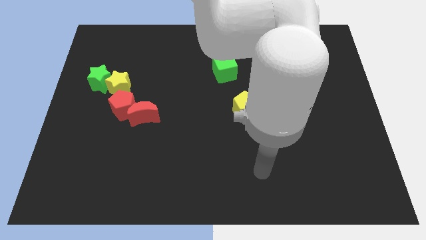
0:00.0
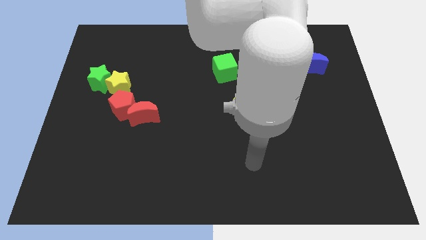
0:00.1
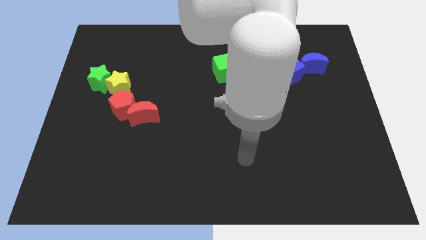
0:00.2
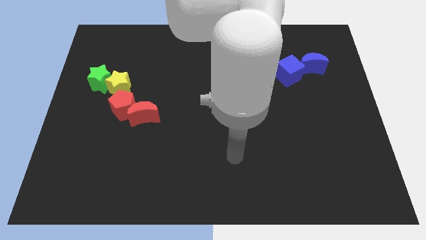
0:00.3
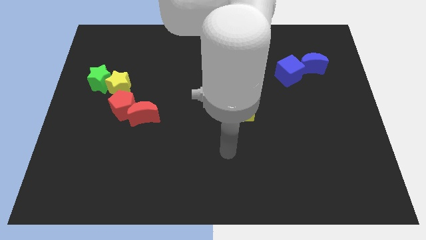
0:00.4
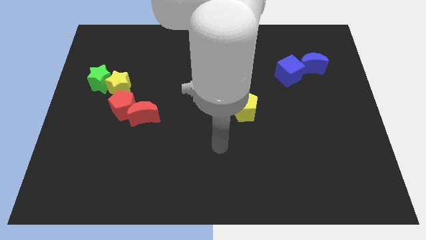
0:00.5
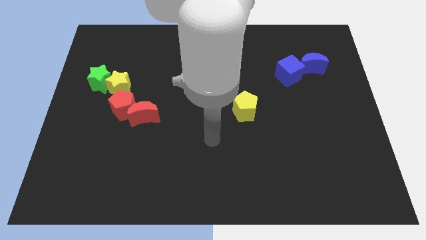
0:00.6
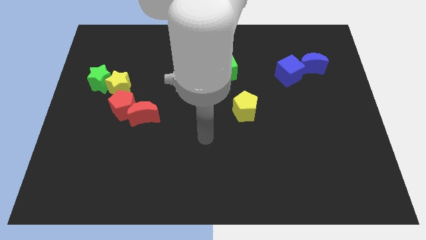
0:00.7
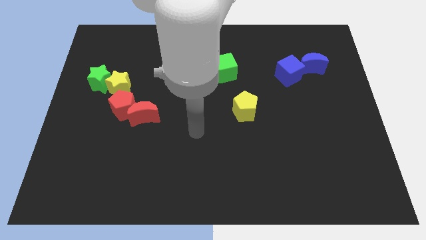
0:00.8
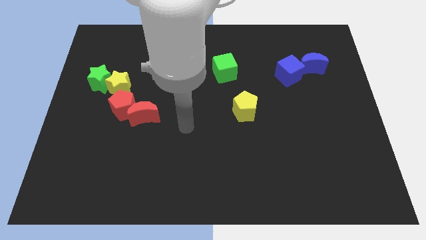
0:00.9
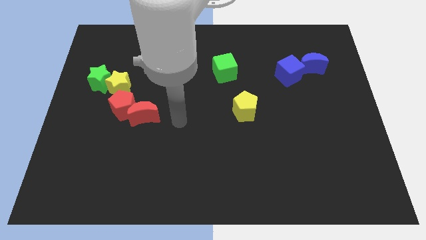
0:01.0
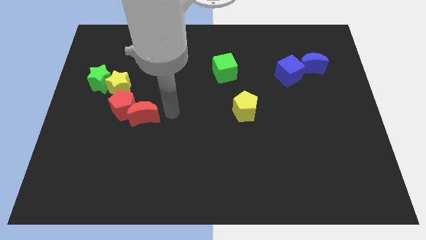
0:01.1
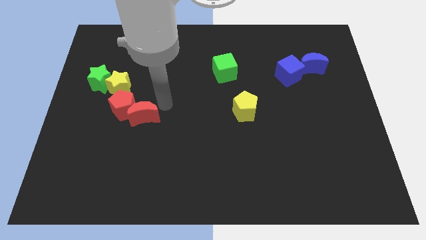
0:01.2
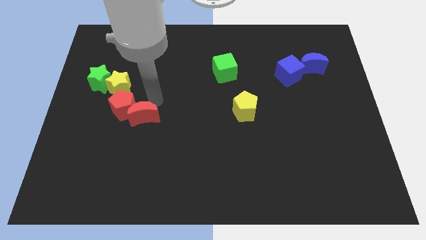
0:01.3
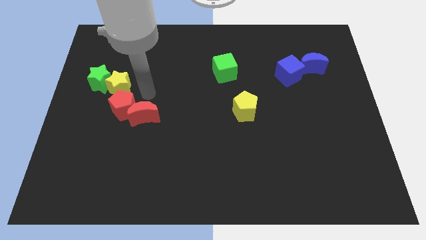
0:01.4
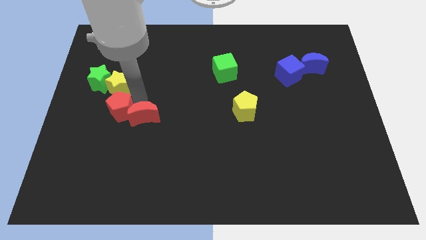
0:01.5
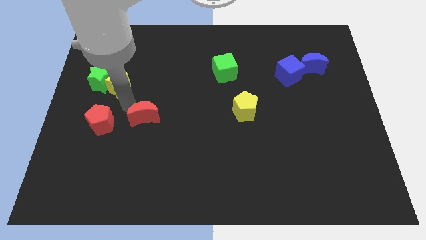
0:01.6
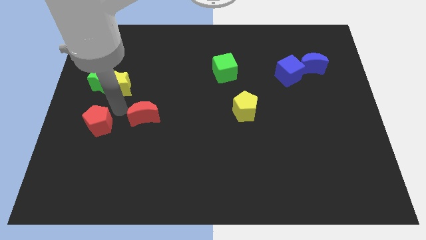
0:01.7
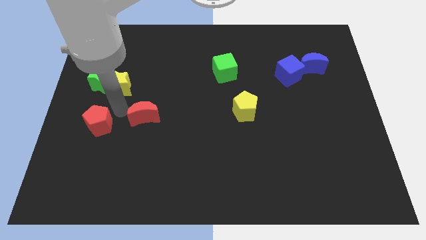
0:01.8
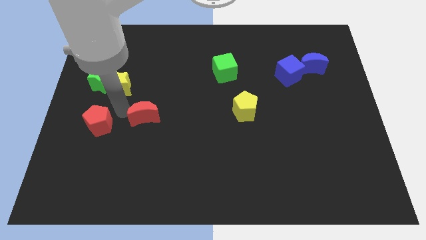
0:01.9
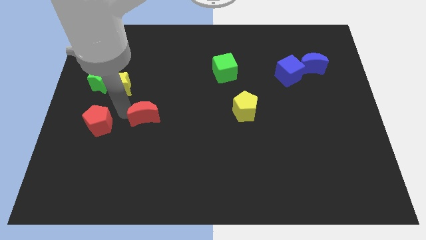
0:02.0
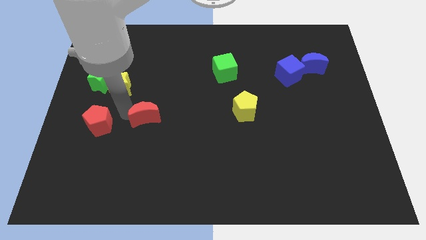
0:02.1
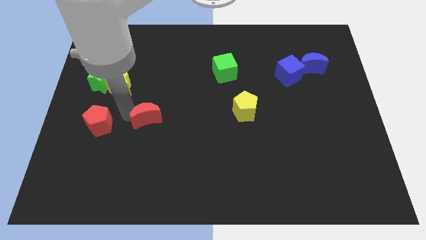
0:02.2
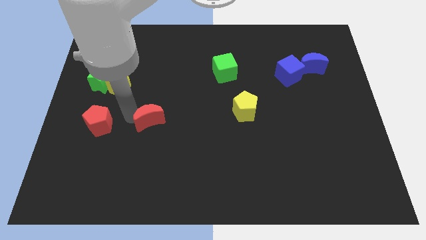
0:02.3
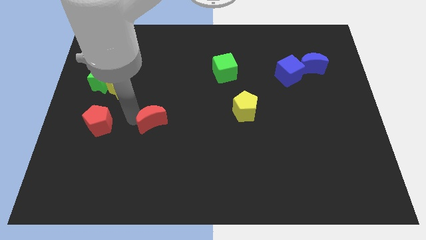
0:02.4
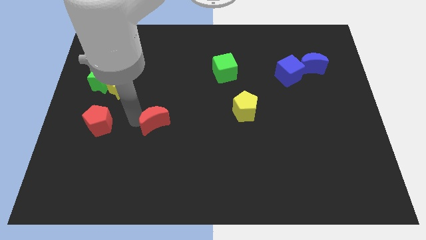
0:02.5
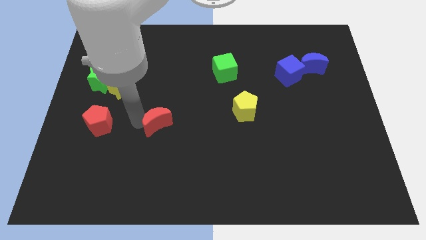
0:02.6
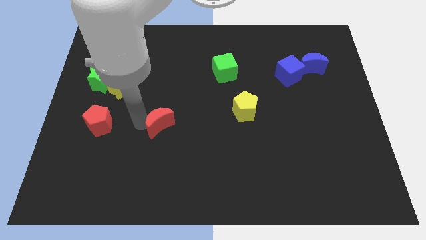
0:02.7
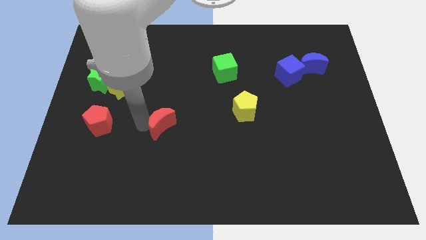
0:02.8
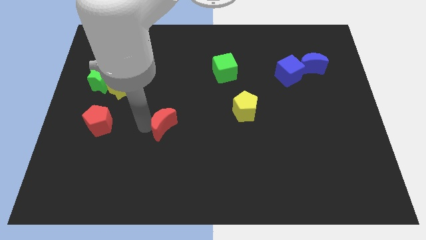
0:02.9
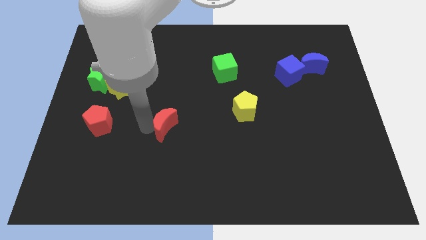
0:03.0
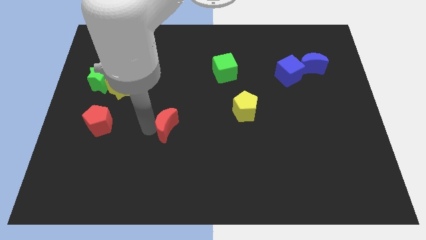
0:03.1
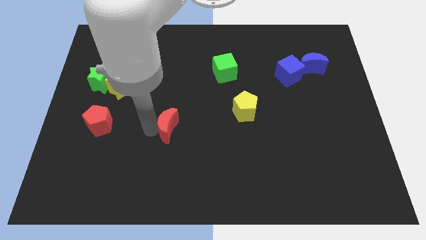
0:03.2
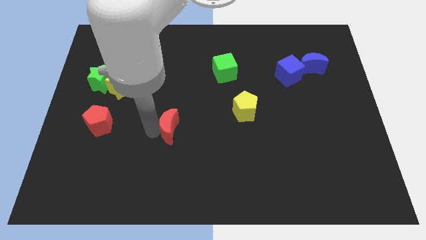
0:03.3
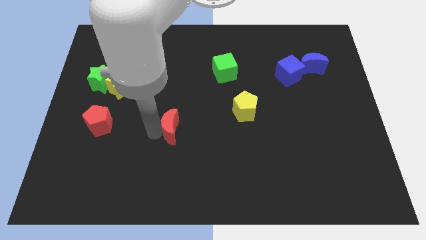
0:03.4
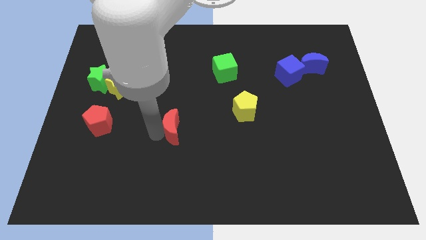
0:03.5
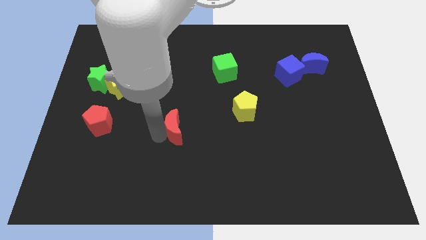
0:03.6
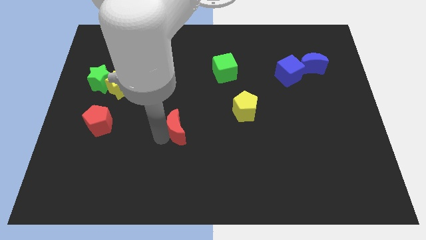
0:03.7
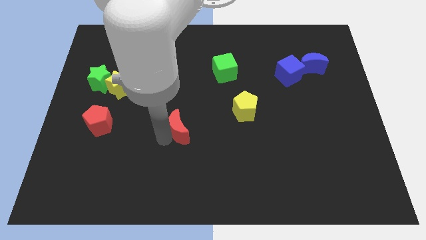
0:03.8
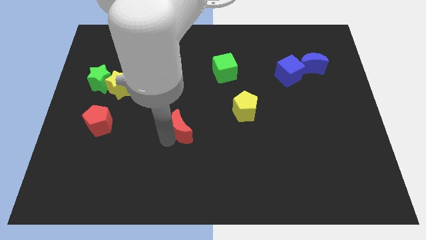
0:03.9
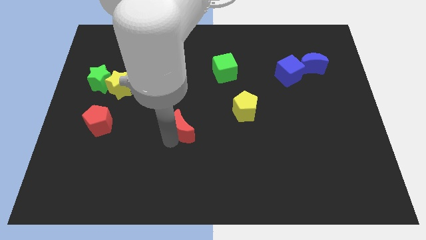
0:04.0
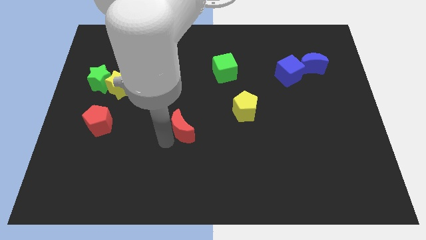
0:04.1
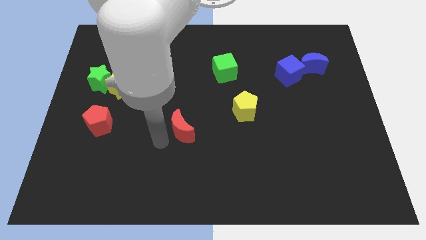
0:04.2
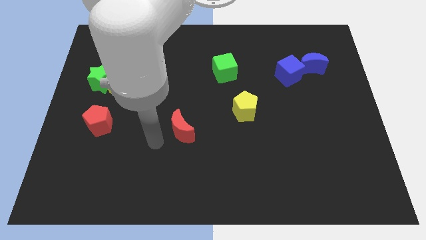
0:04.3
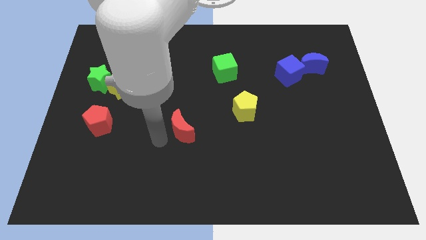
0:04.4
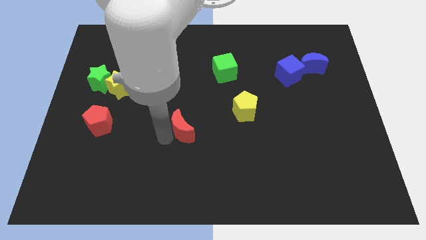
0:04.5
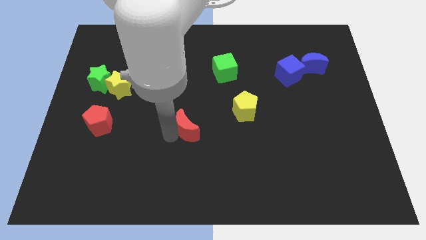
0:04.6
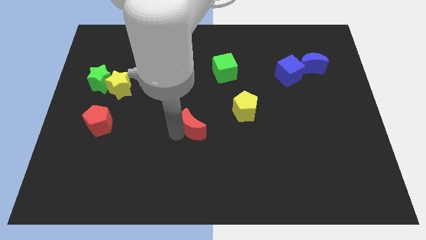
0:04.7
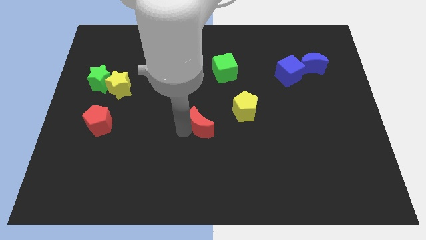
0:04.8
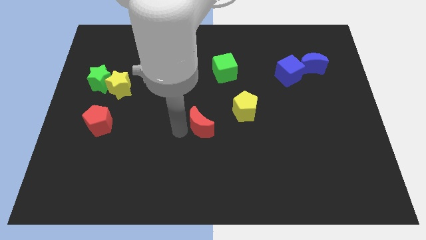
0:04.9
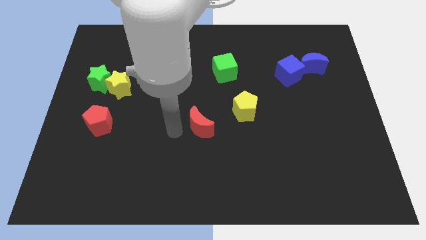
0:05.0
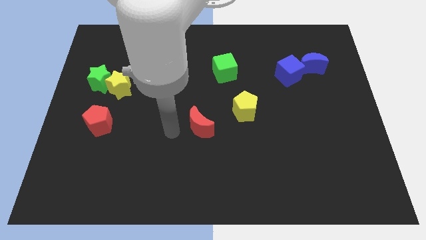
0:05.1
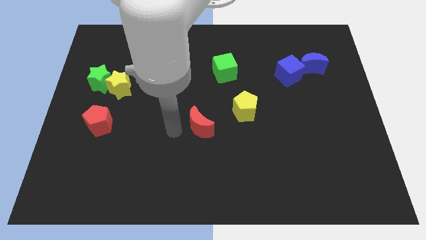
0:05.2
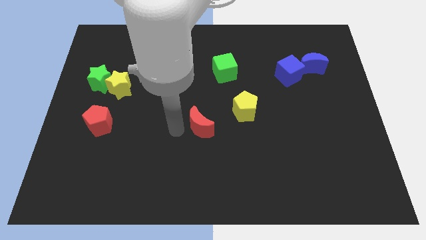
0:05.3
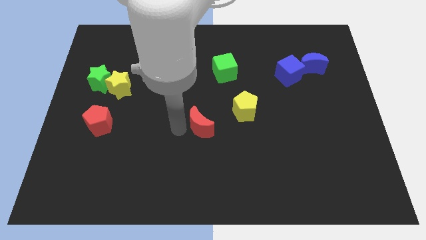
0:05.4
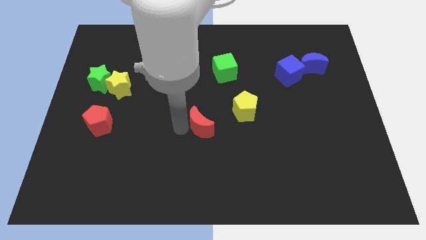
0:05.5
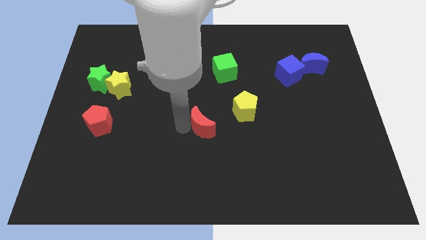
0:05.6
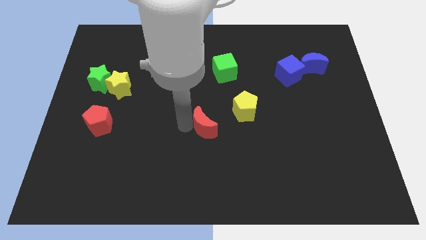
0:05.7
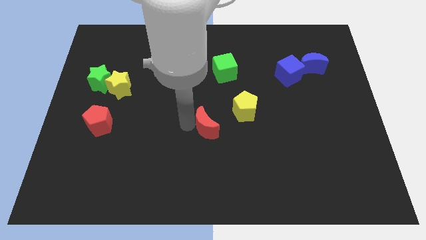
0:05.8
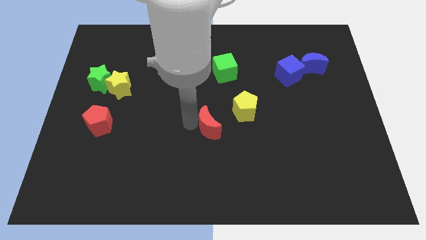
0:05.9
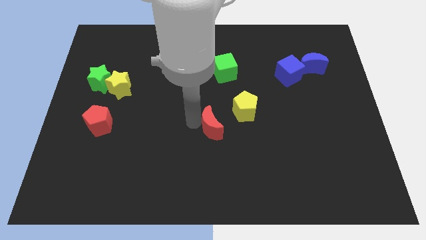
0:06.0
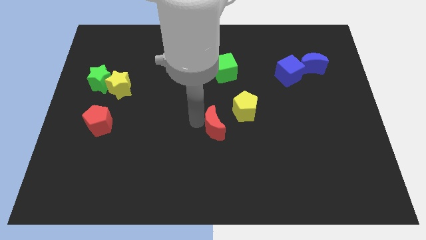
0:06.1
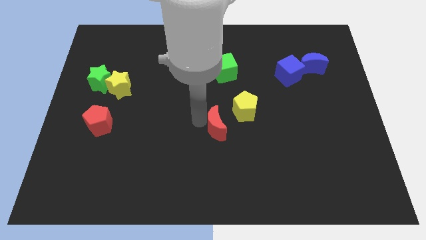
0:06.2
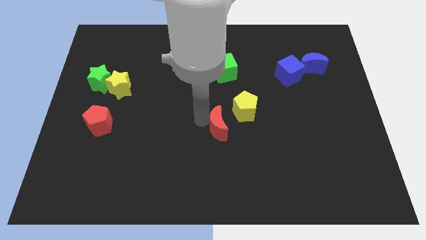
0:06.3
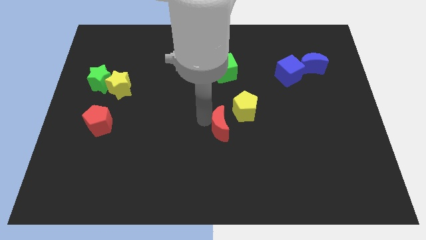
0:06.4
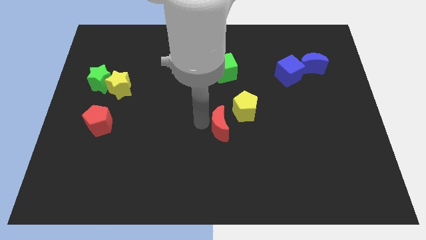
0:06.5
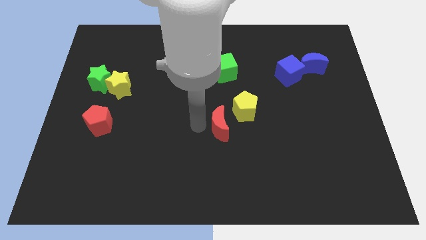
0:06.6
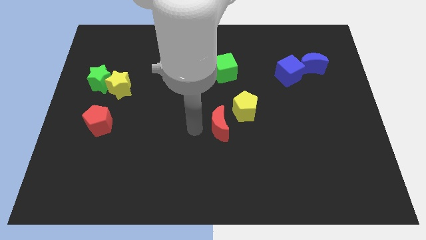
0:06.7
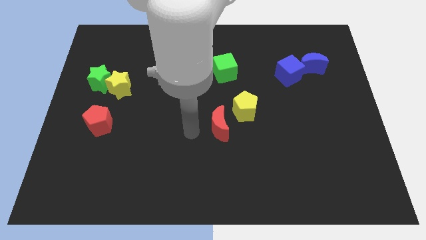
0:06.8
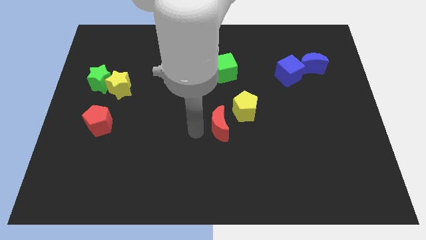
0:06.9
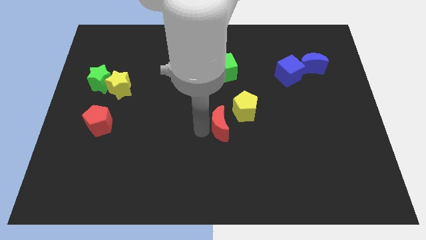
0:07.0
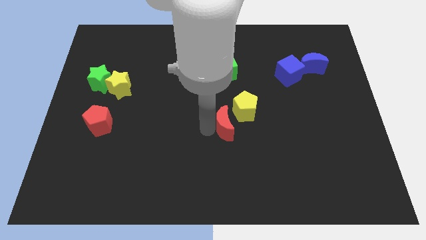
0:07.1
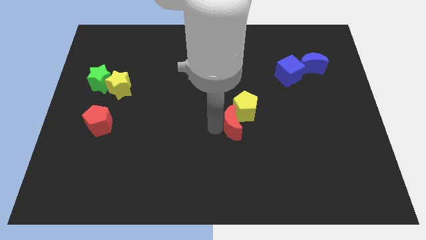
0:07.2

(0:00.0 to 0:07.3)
slide the red moon right

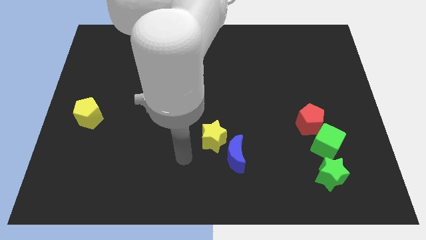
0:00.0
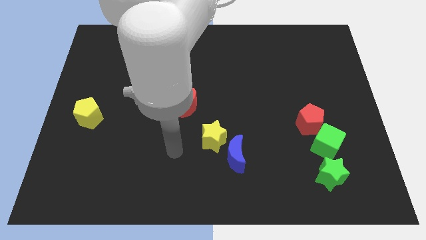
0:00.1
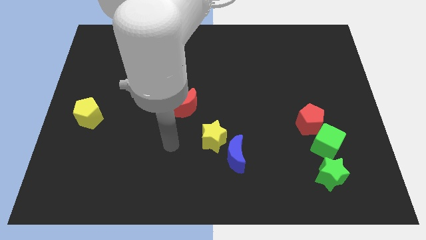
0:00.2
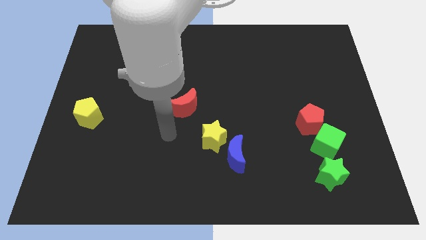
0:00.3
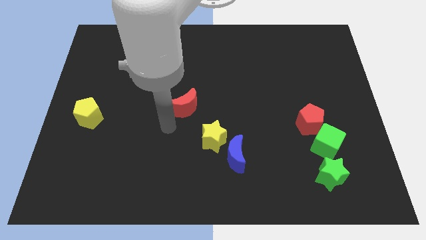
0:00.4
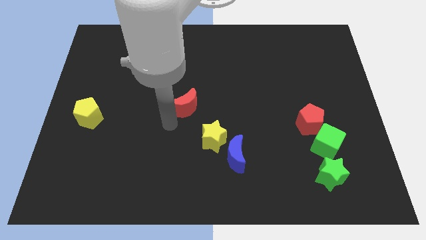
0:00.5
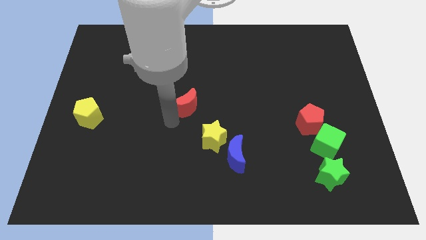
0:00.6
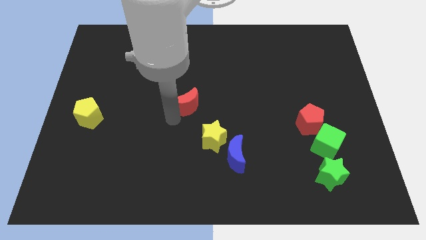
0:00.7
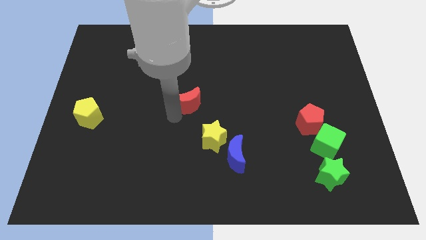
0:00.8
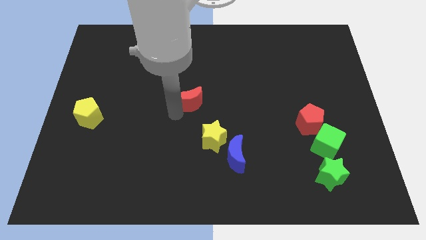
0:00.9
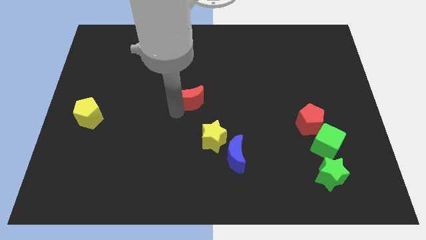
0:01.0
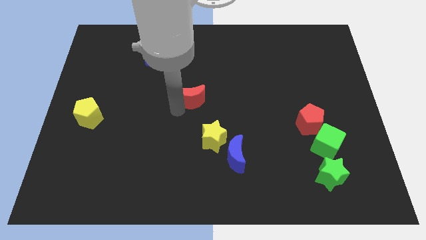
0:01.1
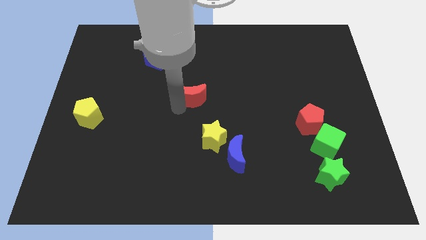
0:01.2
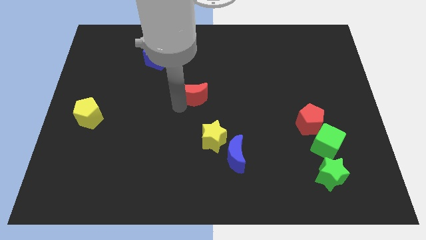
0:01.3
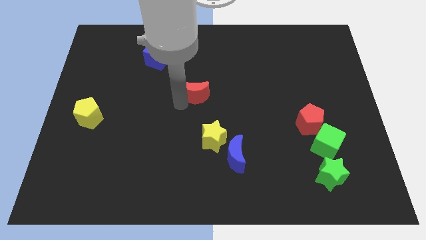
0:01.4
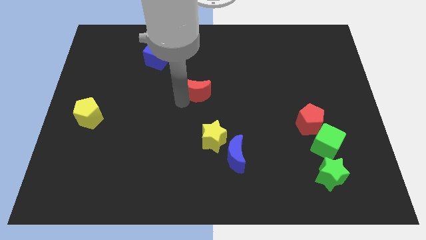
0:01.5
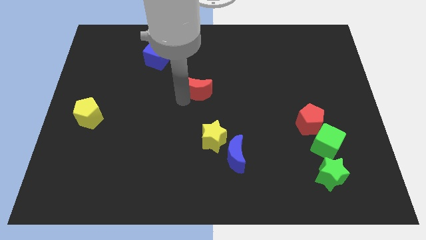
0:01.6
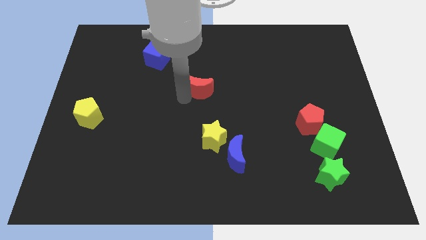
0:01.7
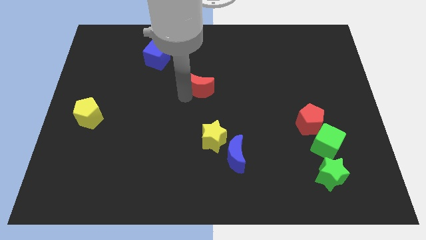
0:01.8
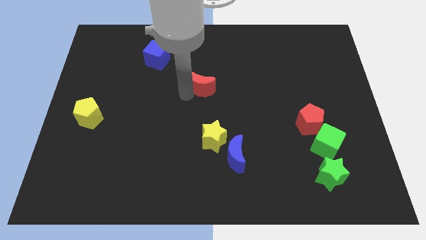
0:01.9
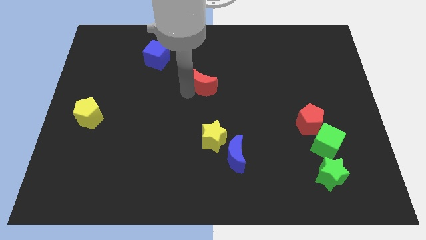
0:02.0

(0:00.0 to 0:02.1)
slide the red moon slightly upwards and then to the right
